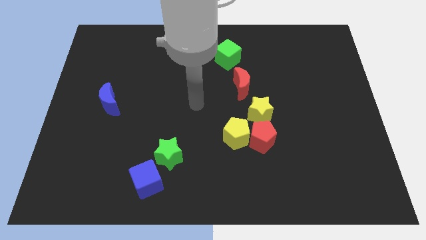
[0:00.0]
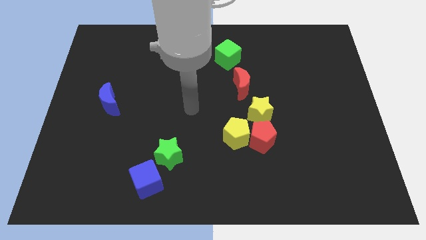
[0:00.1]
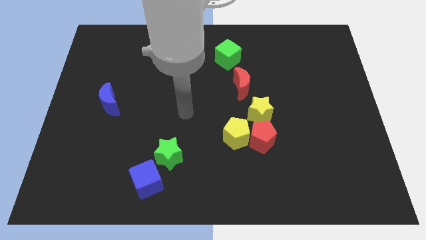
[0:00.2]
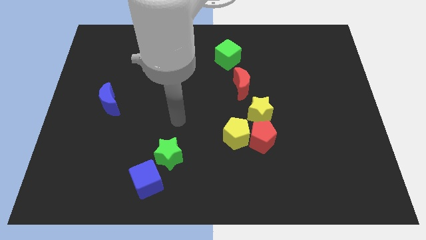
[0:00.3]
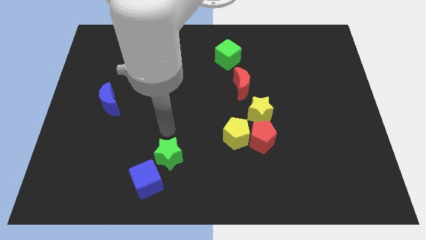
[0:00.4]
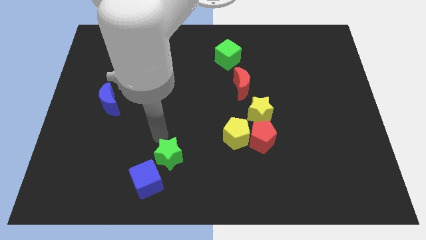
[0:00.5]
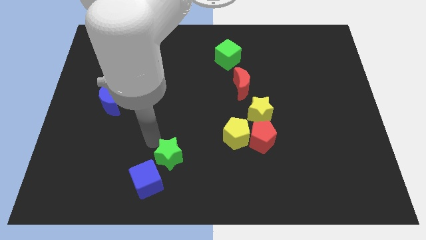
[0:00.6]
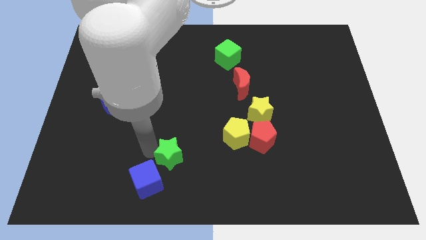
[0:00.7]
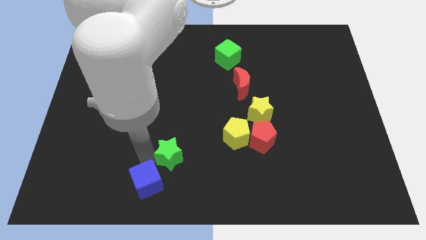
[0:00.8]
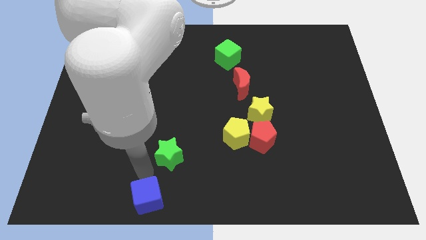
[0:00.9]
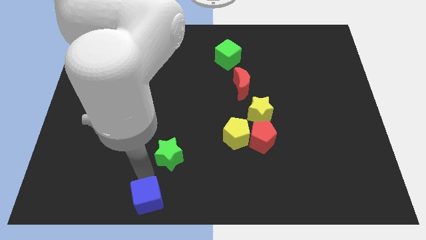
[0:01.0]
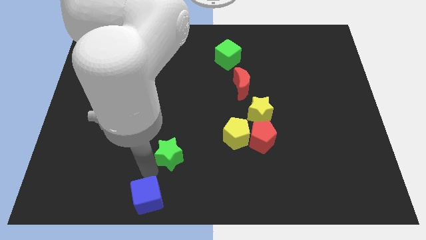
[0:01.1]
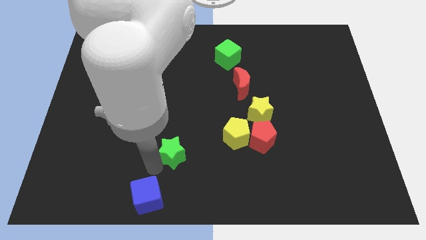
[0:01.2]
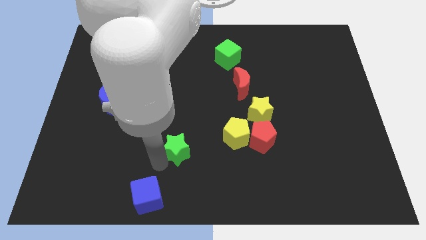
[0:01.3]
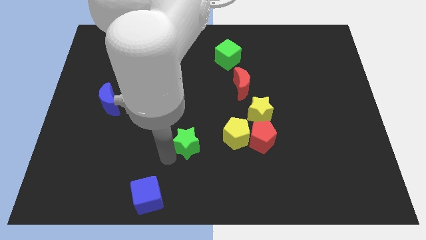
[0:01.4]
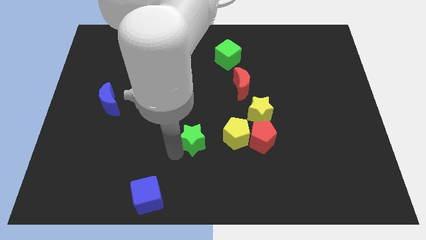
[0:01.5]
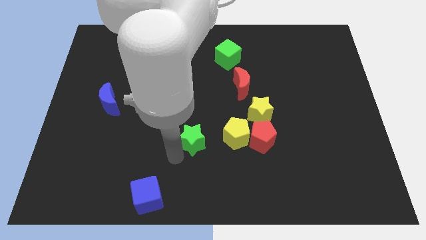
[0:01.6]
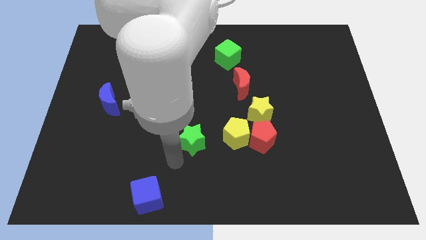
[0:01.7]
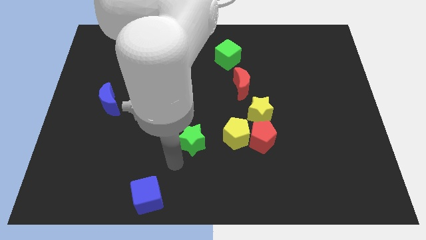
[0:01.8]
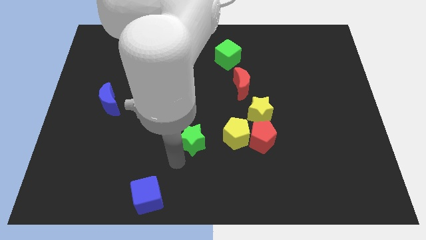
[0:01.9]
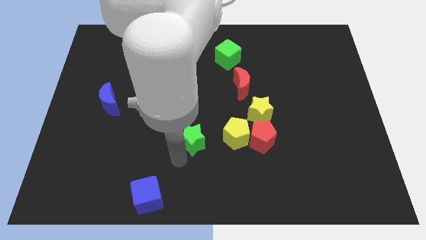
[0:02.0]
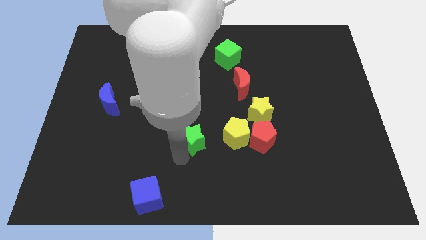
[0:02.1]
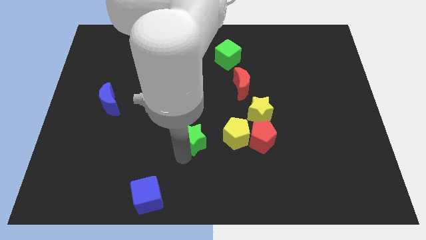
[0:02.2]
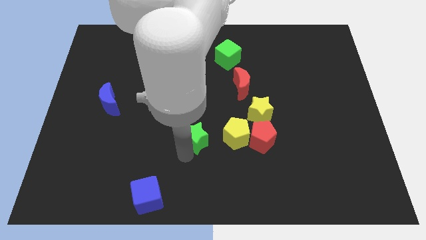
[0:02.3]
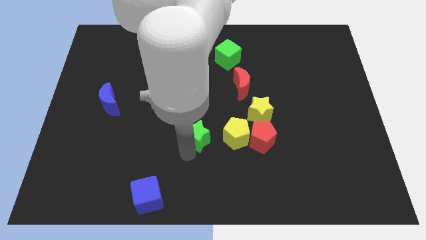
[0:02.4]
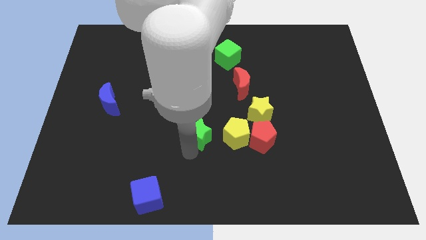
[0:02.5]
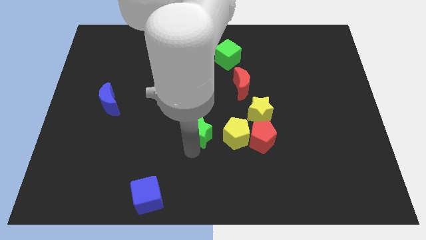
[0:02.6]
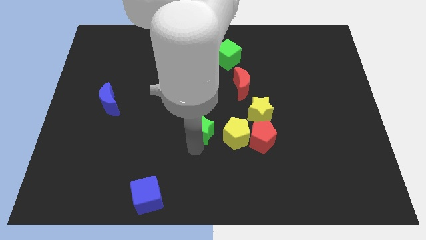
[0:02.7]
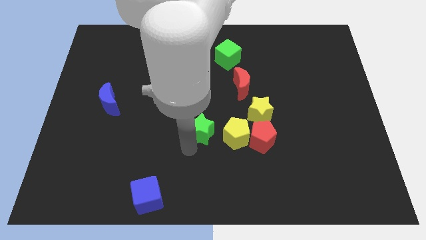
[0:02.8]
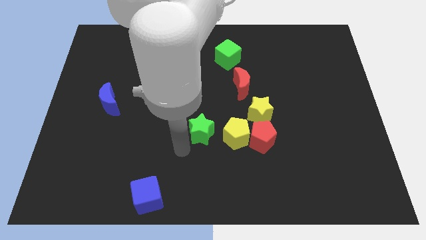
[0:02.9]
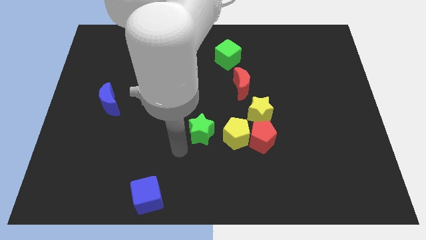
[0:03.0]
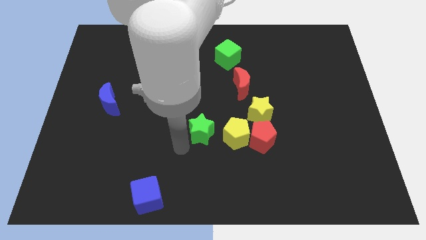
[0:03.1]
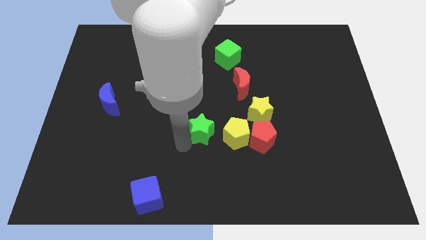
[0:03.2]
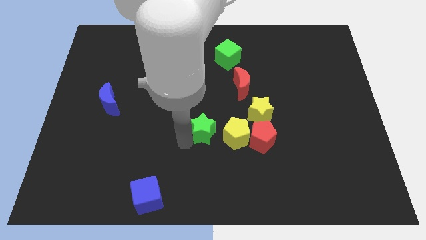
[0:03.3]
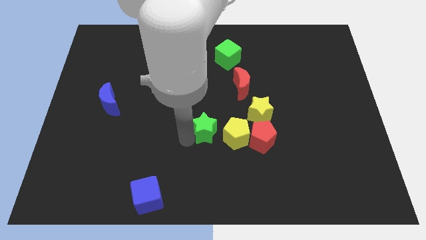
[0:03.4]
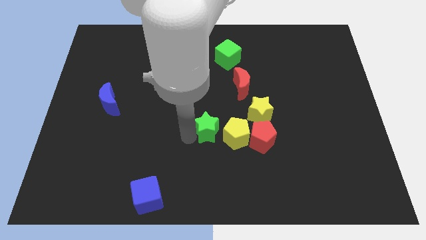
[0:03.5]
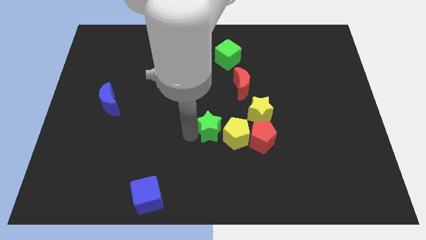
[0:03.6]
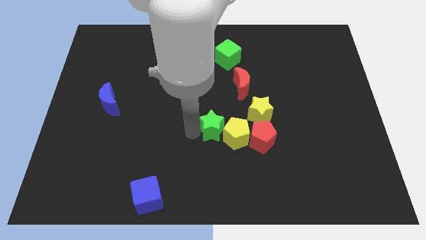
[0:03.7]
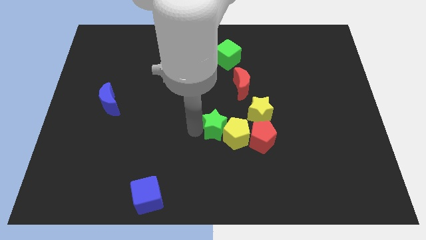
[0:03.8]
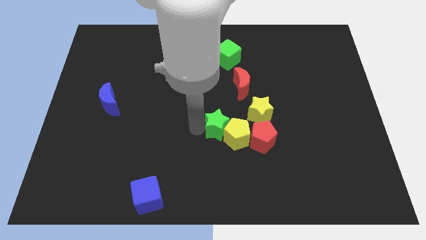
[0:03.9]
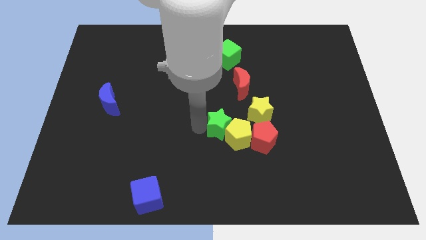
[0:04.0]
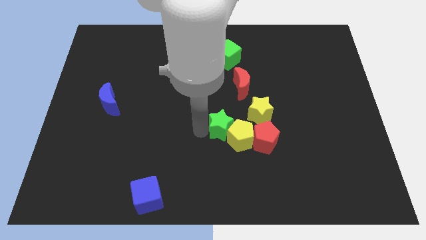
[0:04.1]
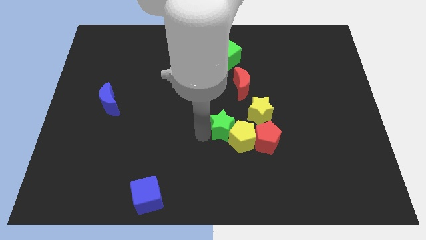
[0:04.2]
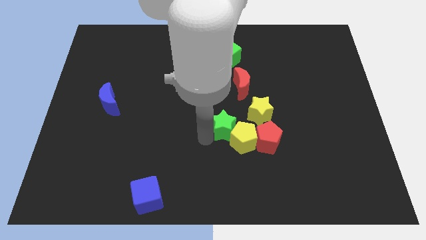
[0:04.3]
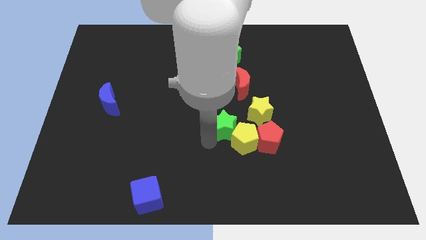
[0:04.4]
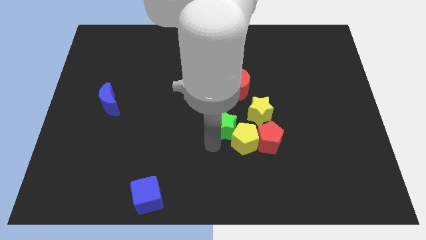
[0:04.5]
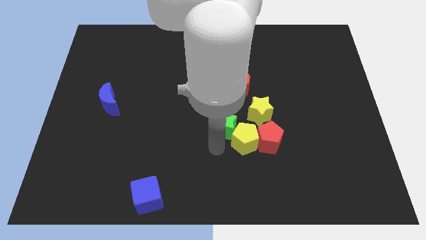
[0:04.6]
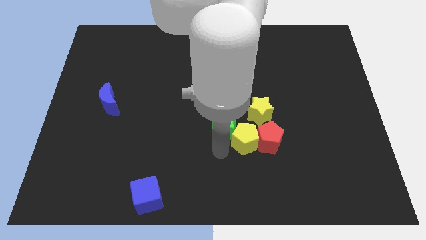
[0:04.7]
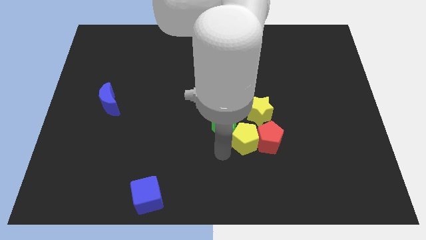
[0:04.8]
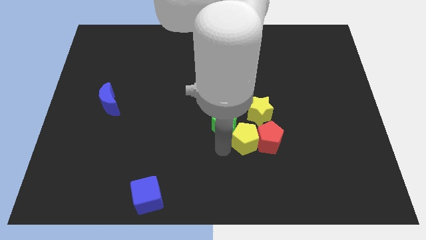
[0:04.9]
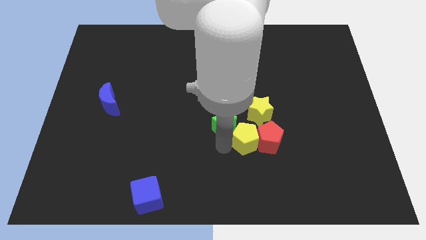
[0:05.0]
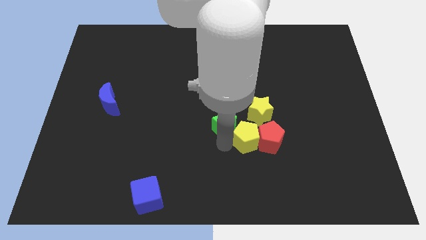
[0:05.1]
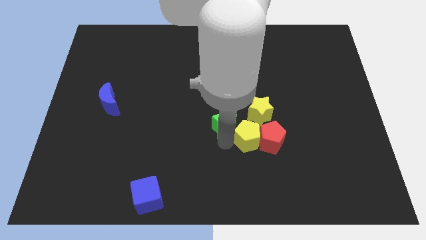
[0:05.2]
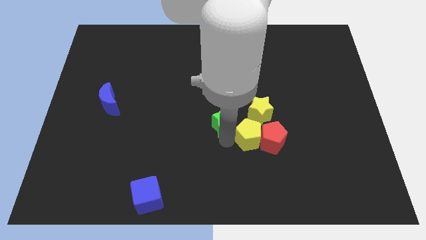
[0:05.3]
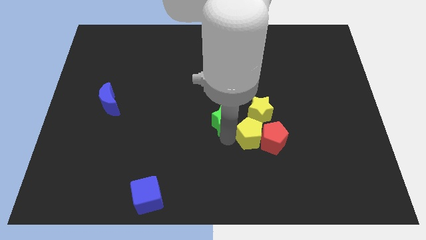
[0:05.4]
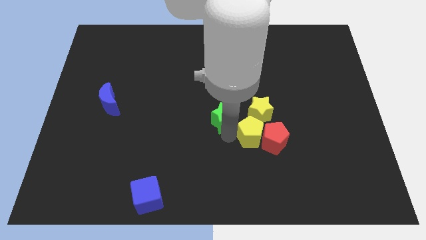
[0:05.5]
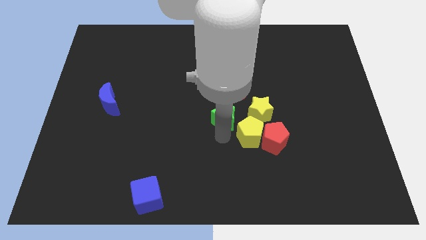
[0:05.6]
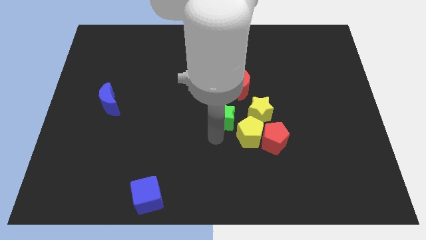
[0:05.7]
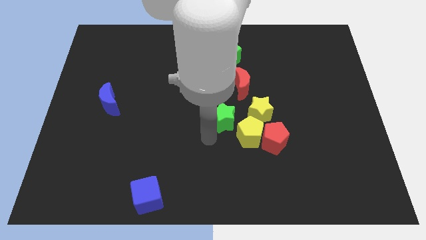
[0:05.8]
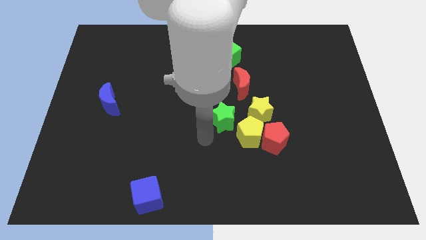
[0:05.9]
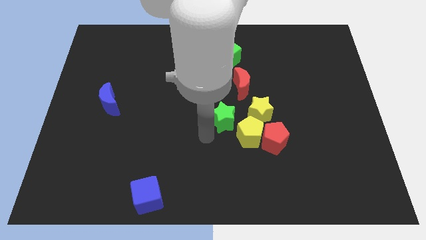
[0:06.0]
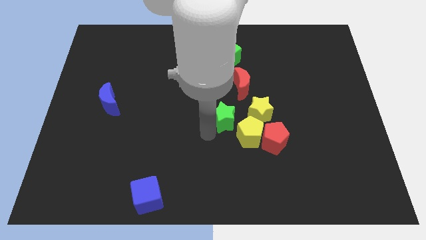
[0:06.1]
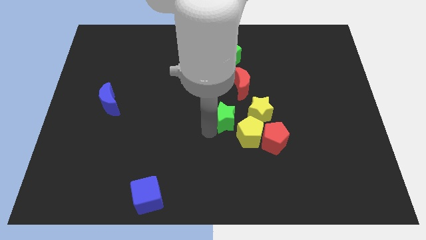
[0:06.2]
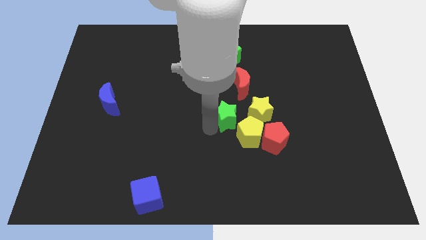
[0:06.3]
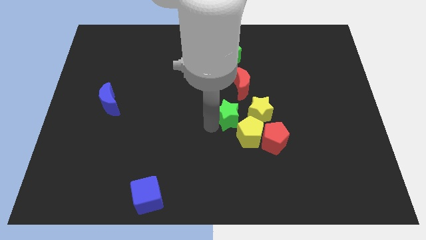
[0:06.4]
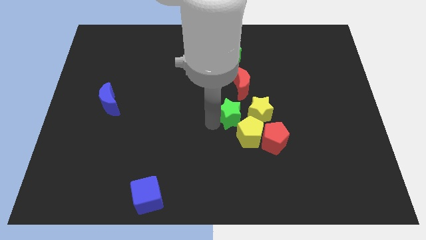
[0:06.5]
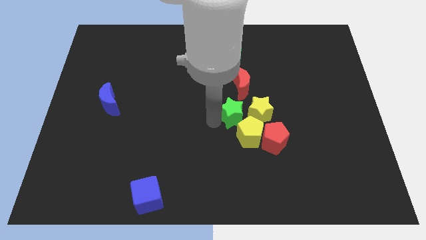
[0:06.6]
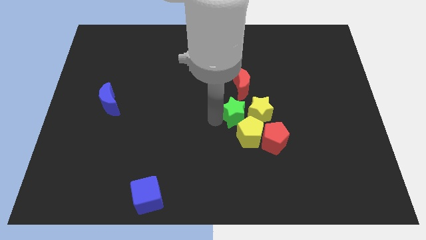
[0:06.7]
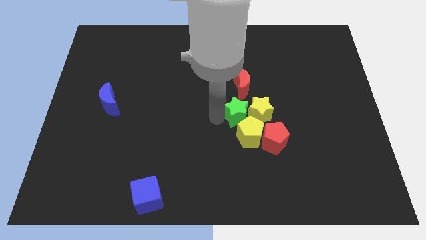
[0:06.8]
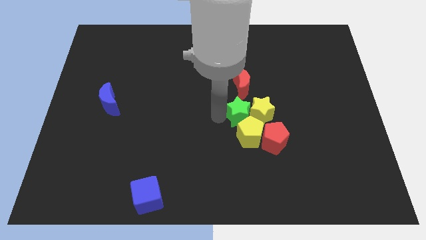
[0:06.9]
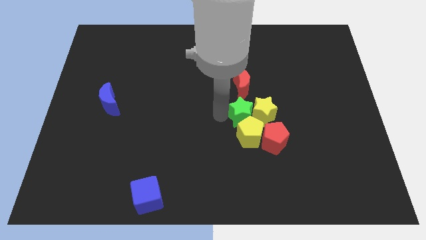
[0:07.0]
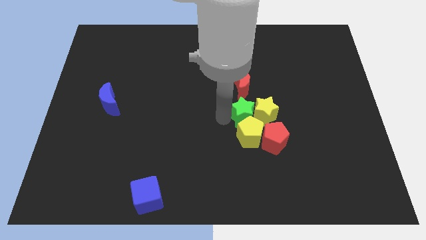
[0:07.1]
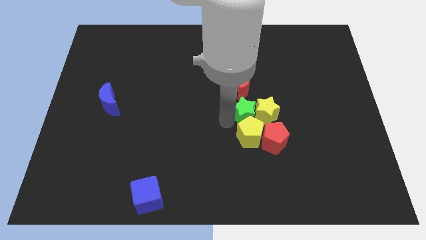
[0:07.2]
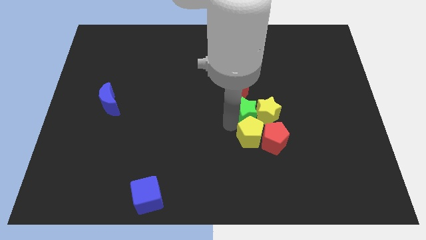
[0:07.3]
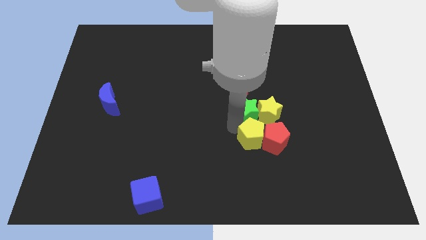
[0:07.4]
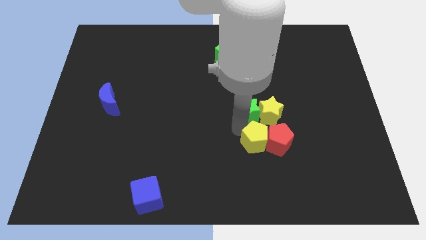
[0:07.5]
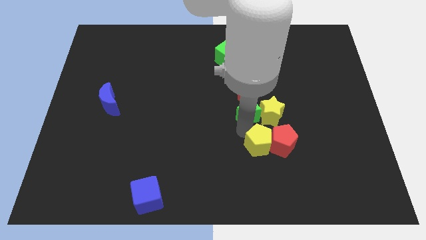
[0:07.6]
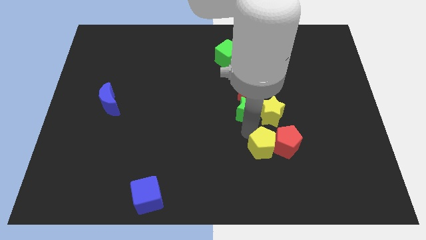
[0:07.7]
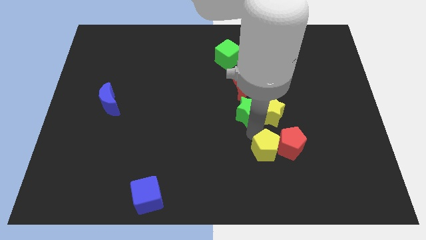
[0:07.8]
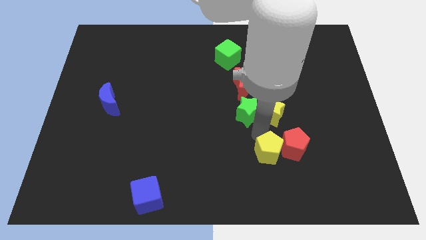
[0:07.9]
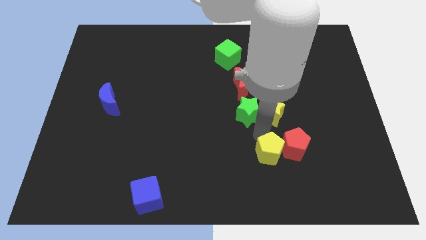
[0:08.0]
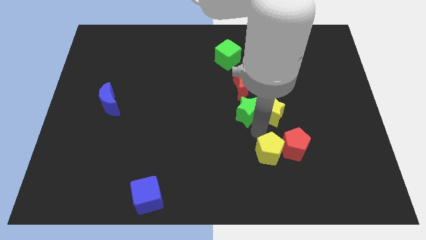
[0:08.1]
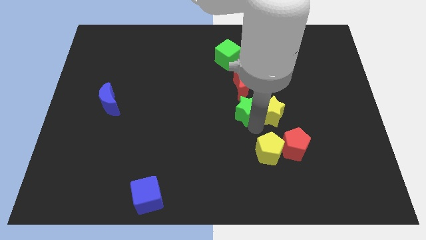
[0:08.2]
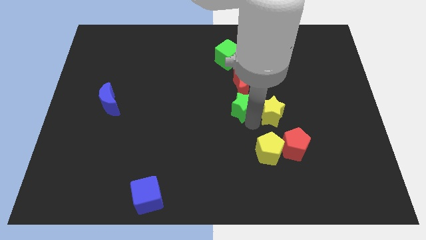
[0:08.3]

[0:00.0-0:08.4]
move the green star diagonally up and to the right
